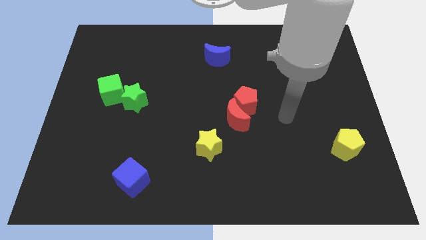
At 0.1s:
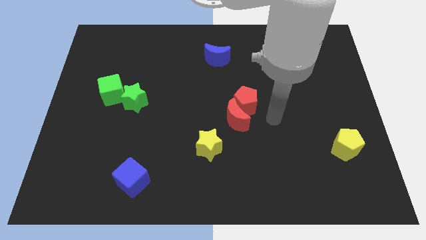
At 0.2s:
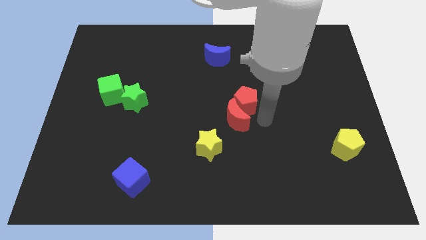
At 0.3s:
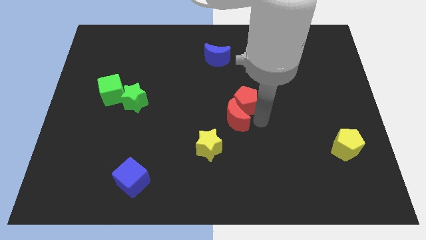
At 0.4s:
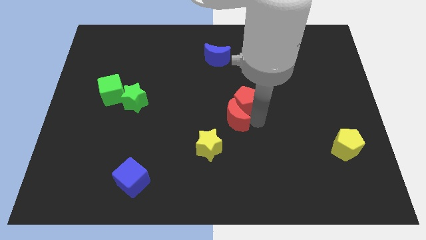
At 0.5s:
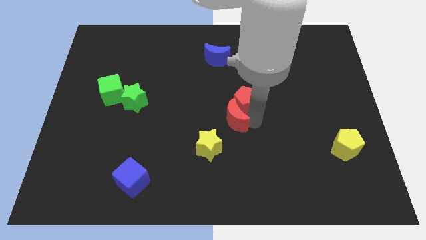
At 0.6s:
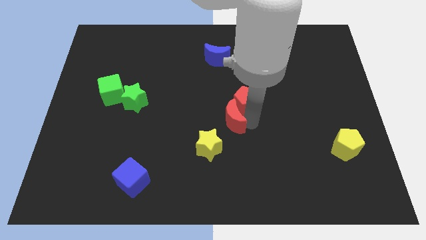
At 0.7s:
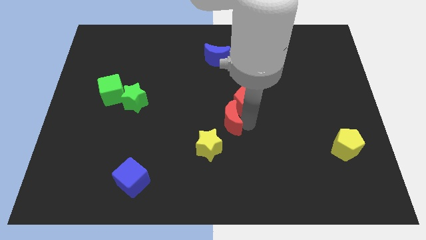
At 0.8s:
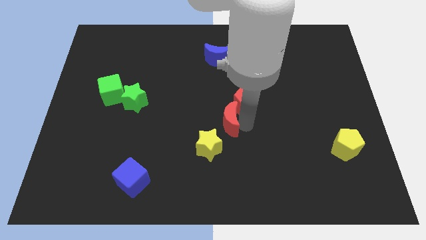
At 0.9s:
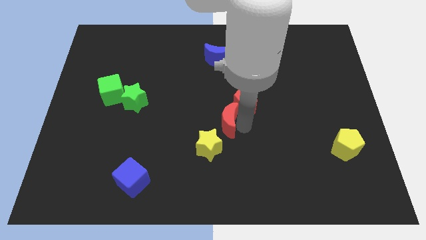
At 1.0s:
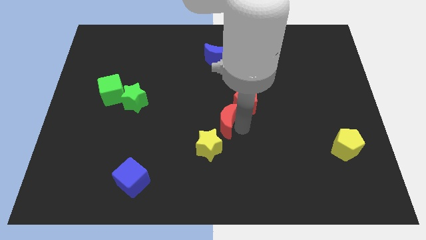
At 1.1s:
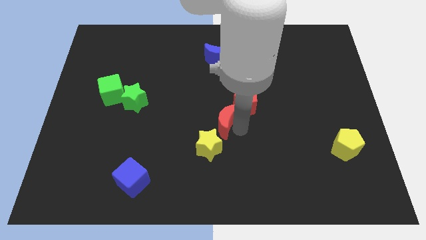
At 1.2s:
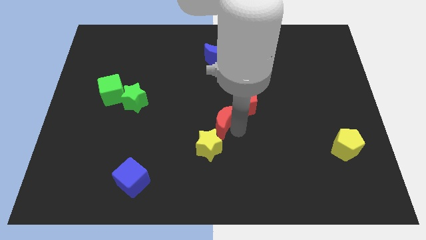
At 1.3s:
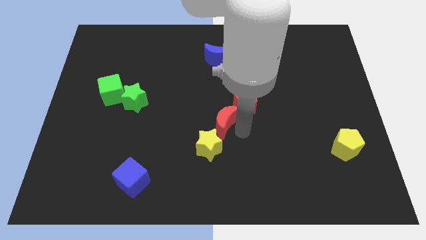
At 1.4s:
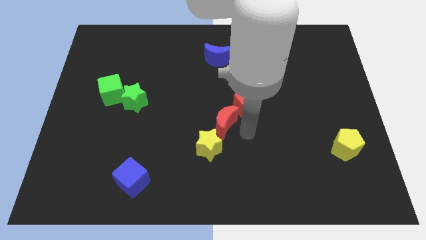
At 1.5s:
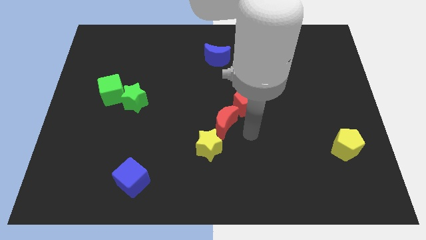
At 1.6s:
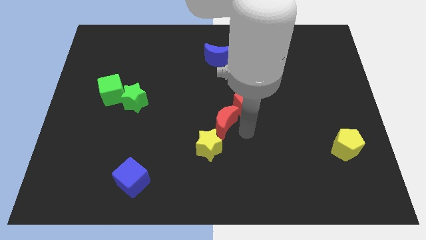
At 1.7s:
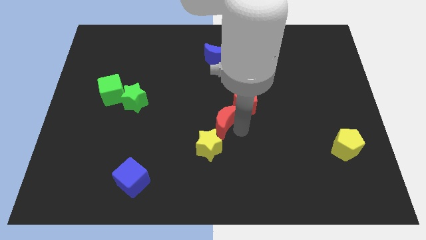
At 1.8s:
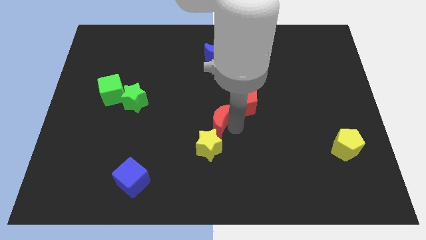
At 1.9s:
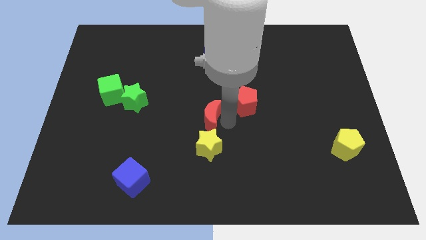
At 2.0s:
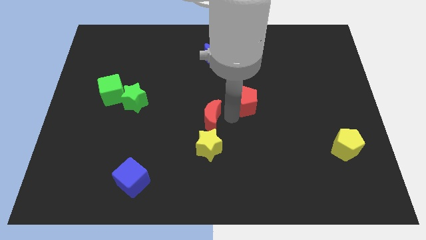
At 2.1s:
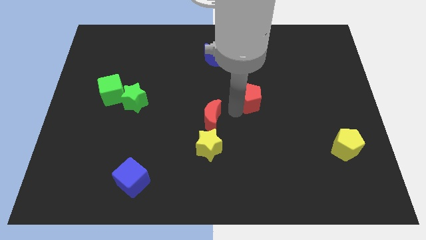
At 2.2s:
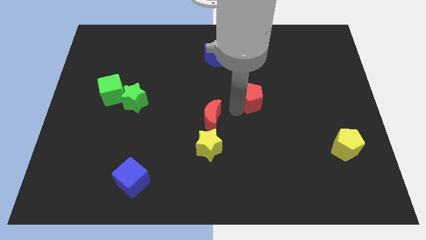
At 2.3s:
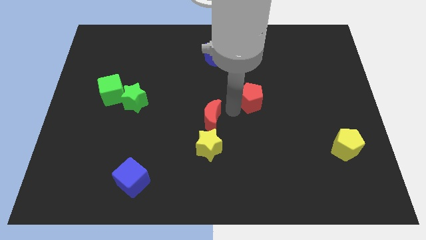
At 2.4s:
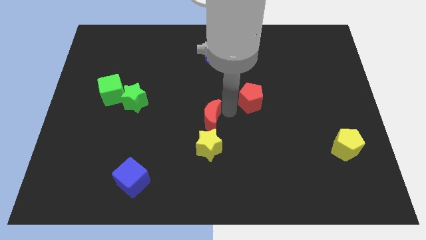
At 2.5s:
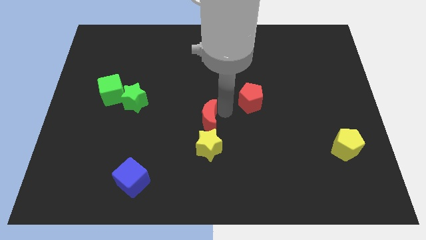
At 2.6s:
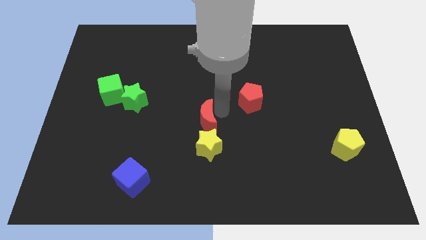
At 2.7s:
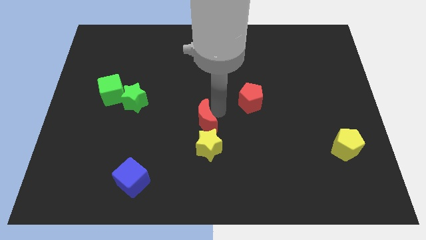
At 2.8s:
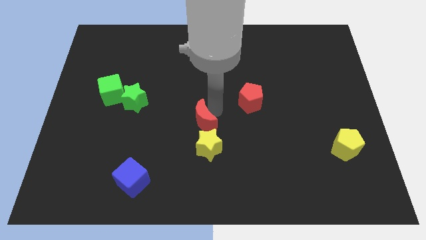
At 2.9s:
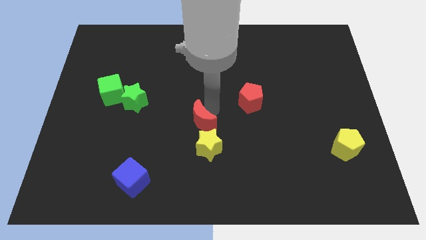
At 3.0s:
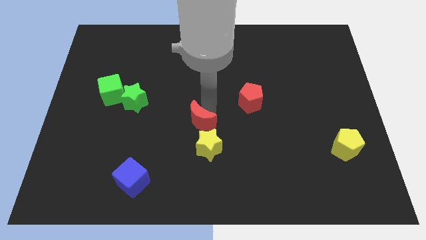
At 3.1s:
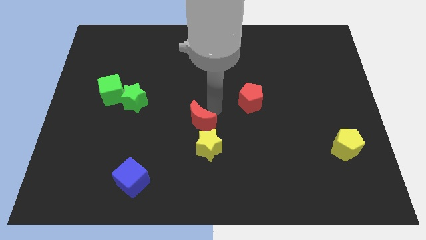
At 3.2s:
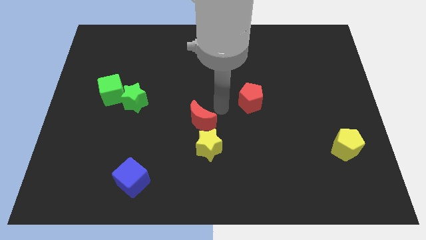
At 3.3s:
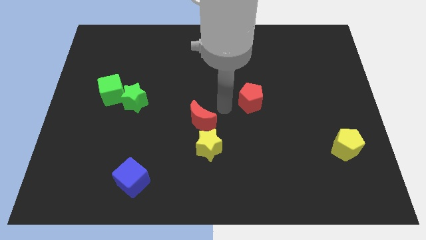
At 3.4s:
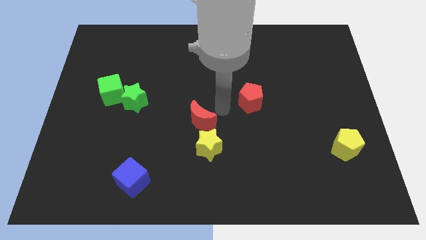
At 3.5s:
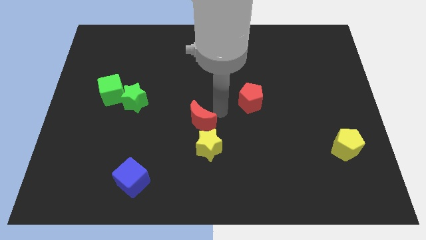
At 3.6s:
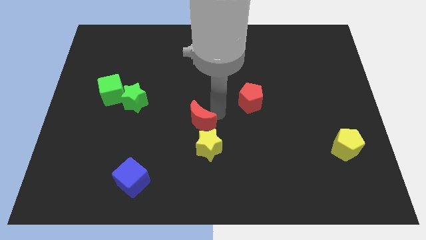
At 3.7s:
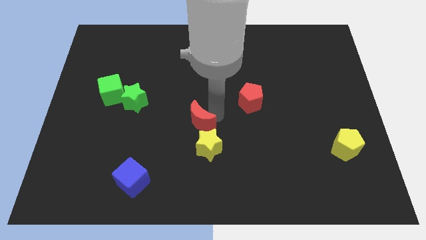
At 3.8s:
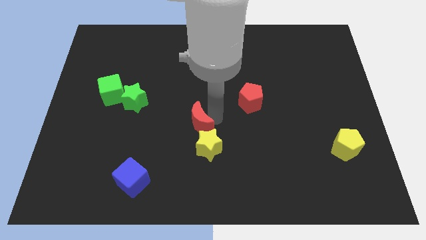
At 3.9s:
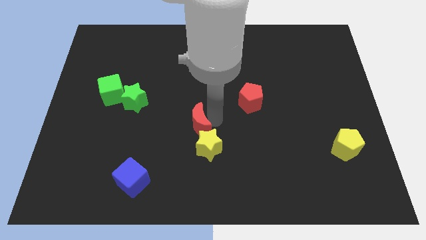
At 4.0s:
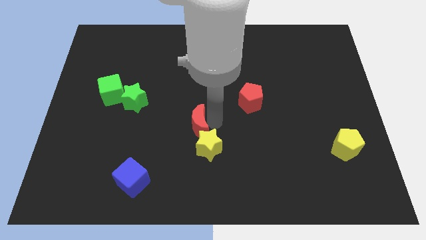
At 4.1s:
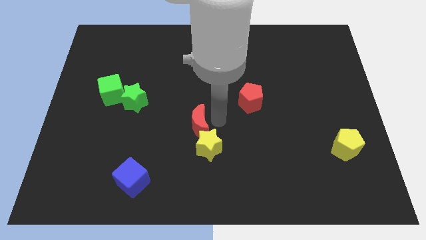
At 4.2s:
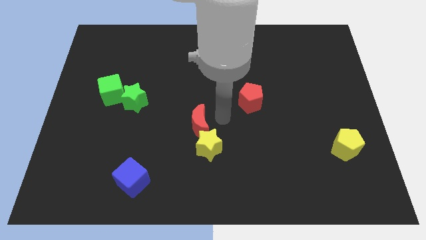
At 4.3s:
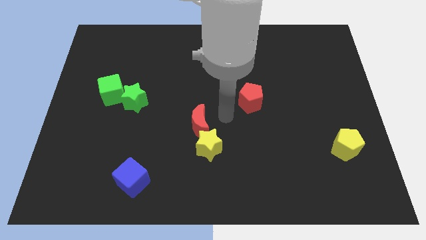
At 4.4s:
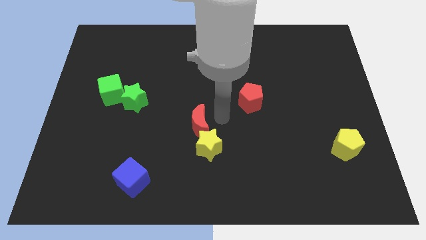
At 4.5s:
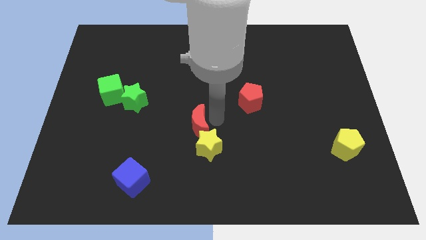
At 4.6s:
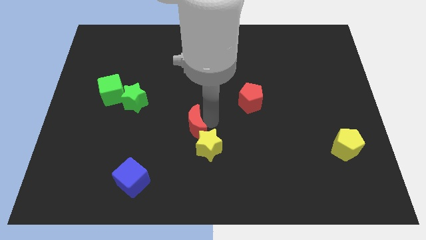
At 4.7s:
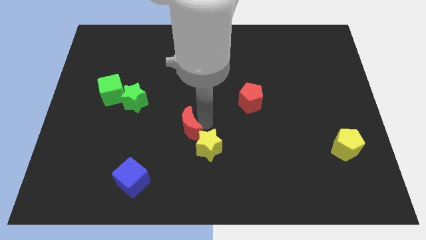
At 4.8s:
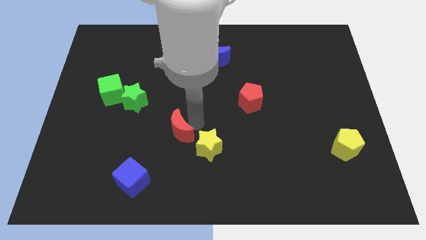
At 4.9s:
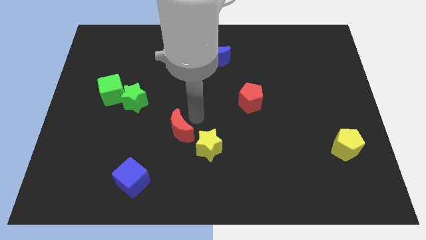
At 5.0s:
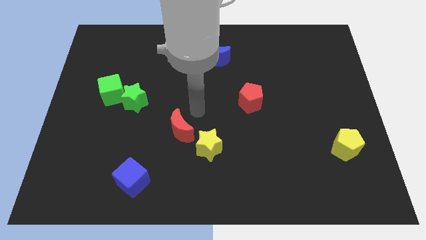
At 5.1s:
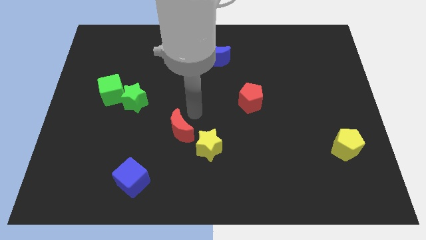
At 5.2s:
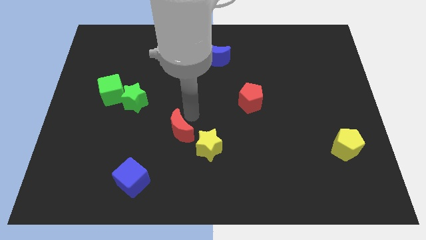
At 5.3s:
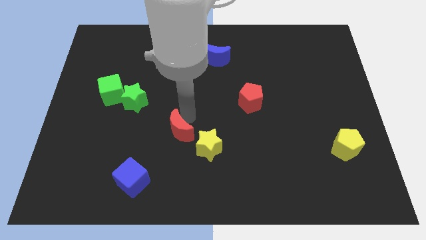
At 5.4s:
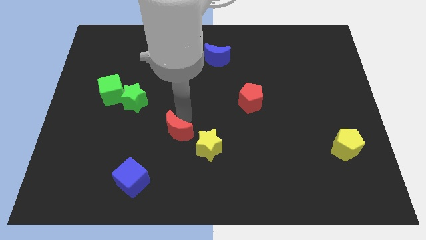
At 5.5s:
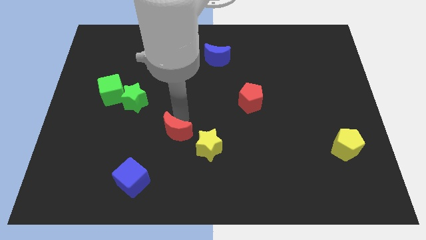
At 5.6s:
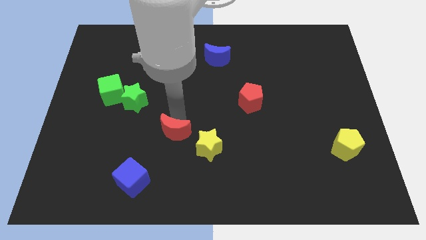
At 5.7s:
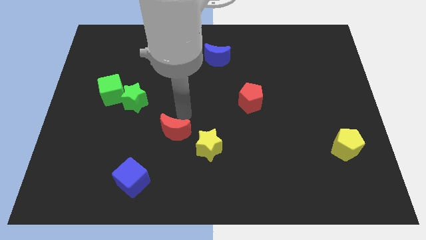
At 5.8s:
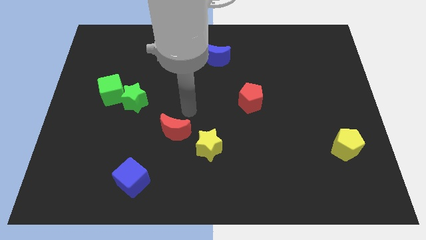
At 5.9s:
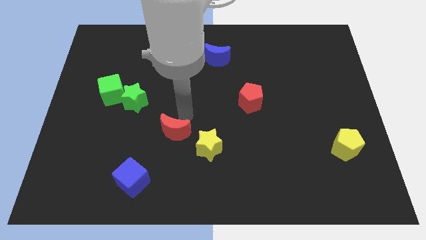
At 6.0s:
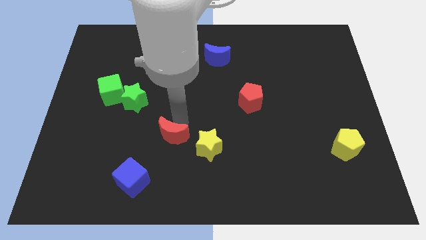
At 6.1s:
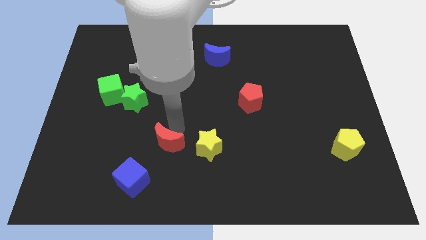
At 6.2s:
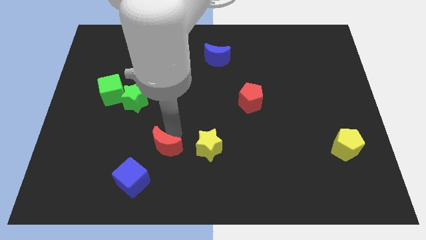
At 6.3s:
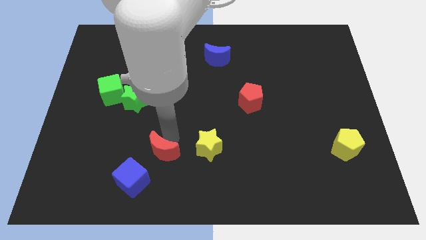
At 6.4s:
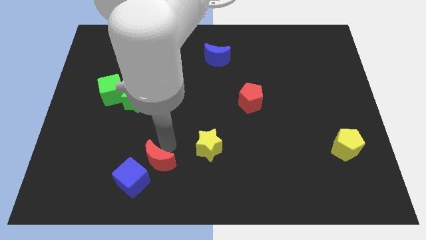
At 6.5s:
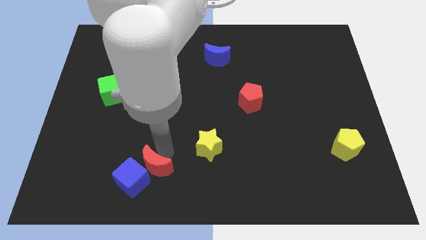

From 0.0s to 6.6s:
put the red moon to the blue cube
